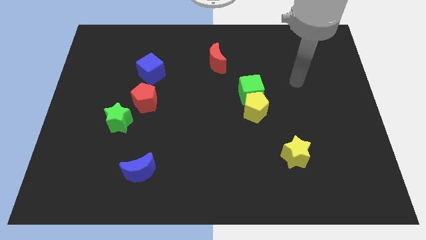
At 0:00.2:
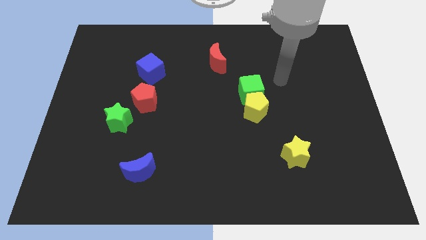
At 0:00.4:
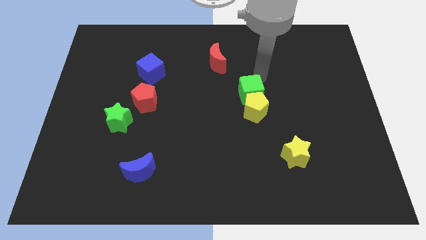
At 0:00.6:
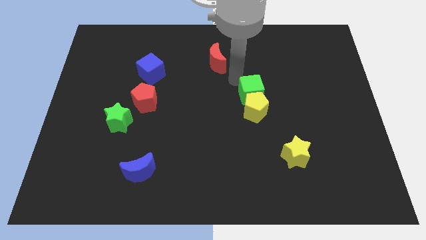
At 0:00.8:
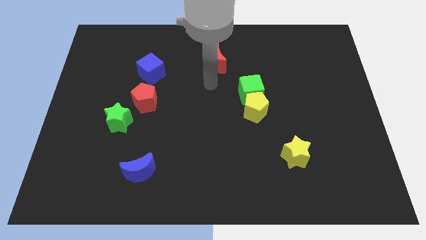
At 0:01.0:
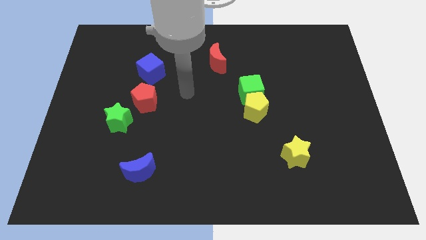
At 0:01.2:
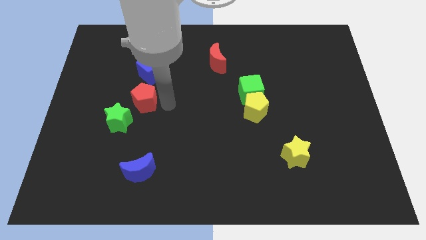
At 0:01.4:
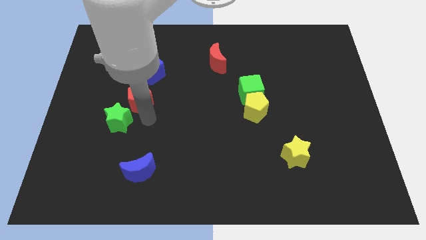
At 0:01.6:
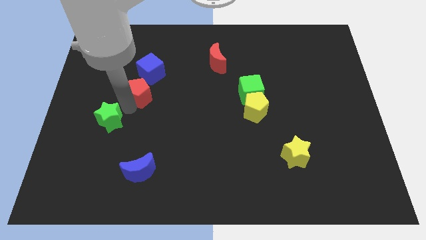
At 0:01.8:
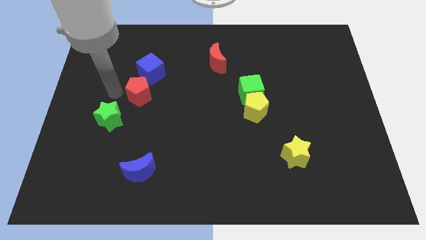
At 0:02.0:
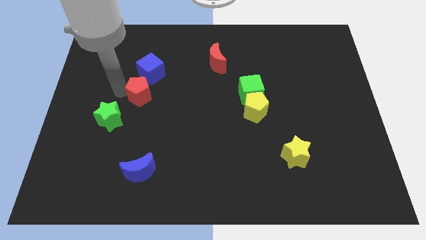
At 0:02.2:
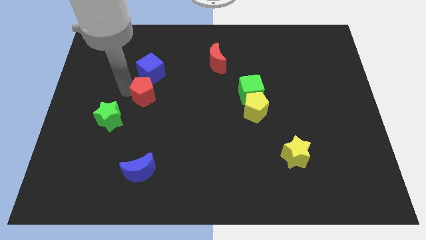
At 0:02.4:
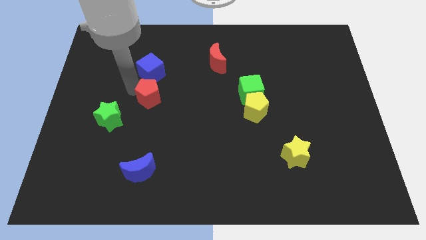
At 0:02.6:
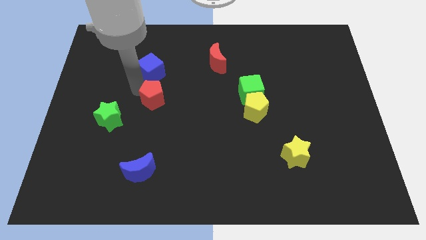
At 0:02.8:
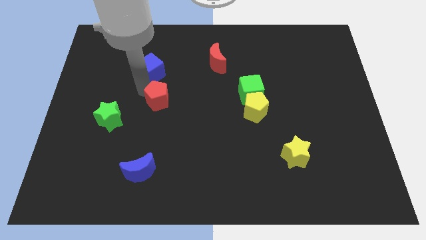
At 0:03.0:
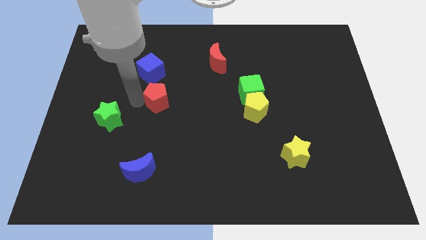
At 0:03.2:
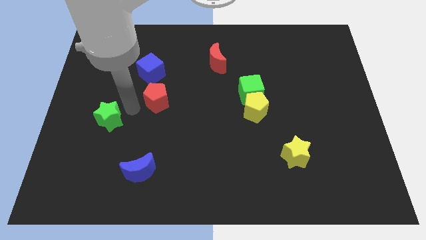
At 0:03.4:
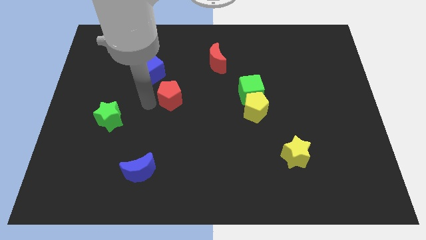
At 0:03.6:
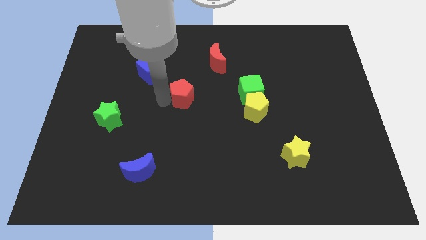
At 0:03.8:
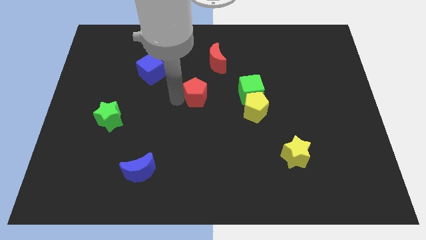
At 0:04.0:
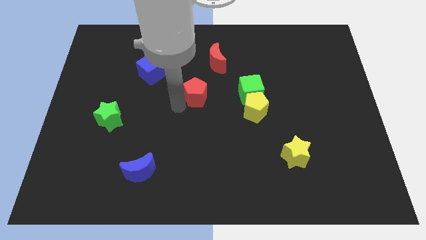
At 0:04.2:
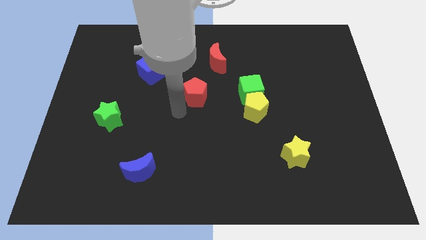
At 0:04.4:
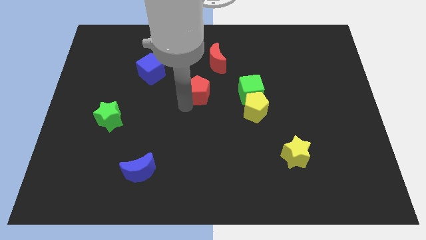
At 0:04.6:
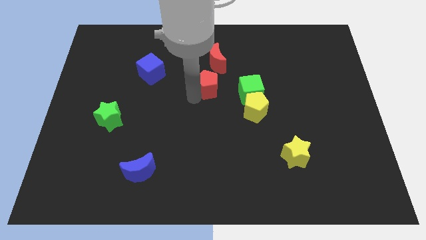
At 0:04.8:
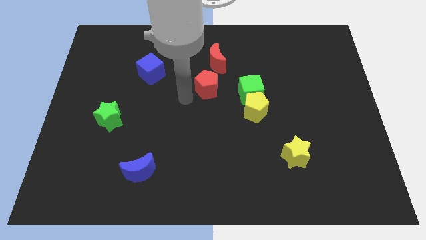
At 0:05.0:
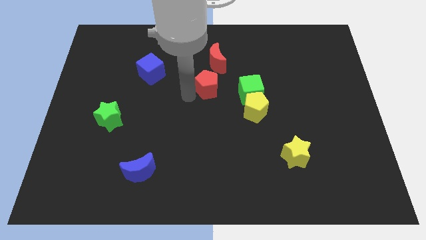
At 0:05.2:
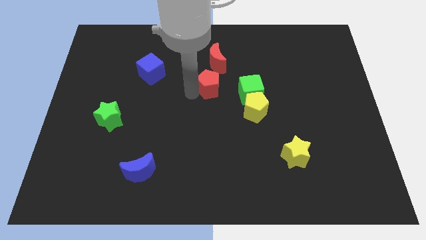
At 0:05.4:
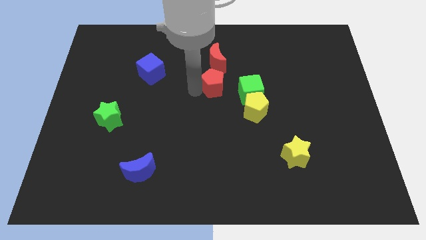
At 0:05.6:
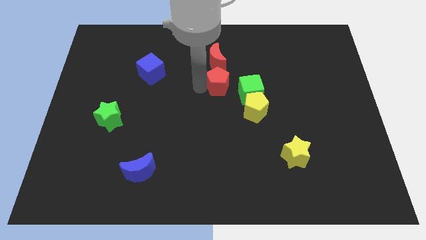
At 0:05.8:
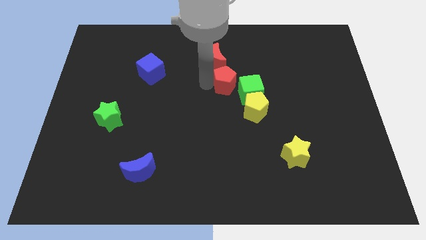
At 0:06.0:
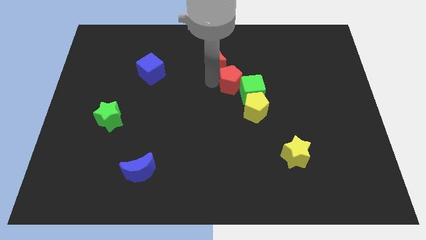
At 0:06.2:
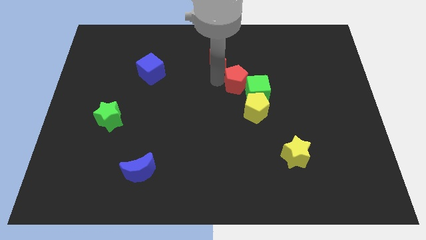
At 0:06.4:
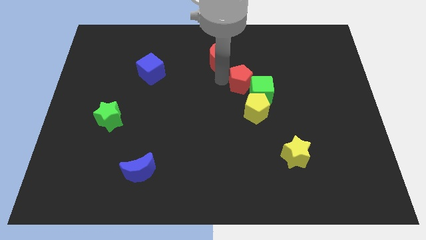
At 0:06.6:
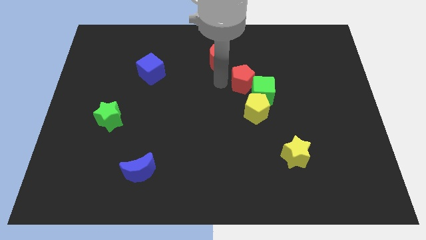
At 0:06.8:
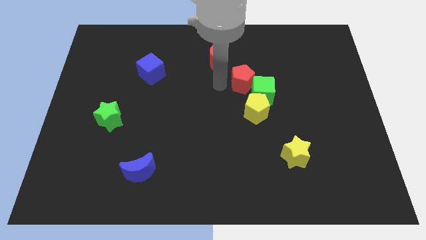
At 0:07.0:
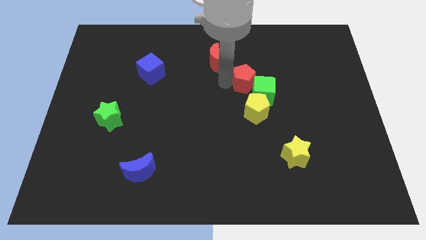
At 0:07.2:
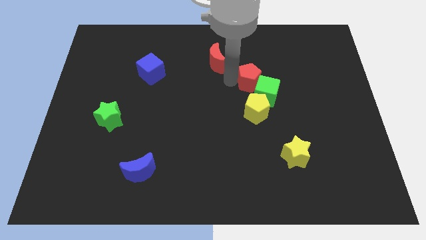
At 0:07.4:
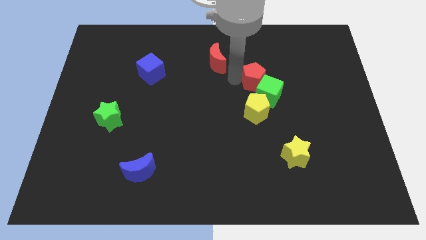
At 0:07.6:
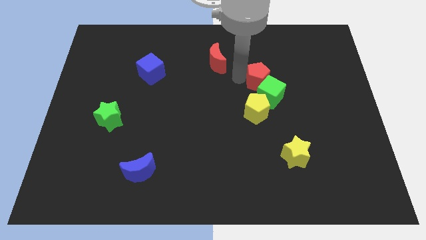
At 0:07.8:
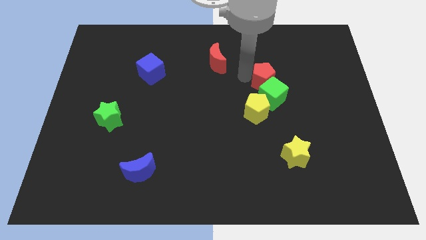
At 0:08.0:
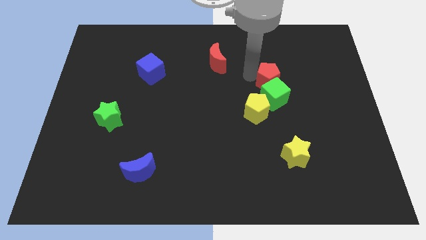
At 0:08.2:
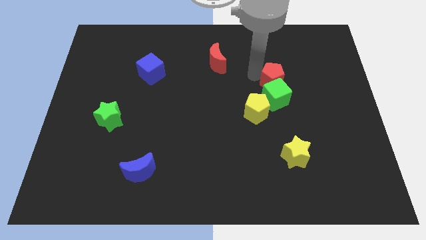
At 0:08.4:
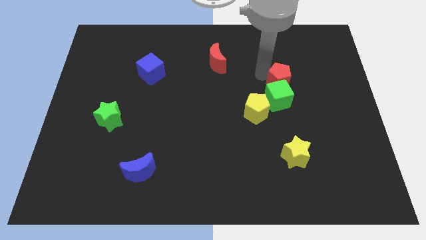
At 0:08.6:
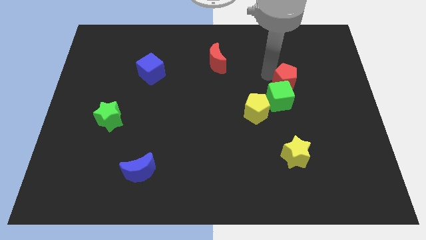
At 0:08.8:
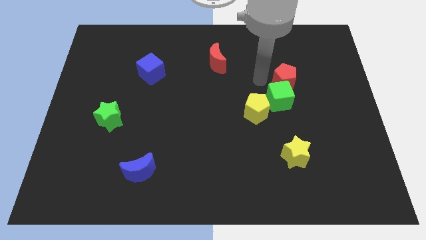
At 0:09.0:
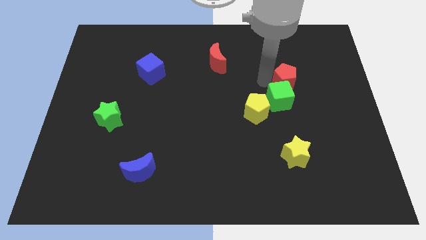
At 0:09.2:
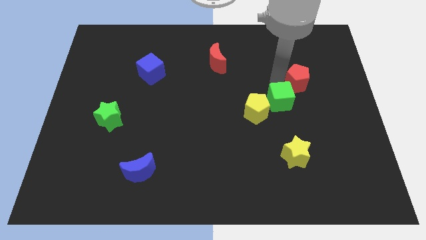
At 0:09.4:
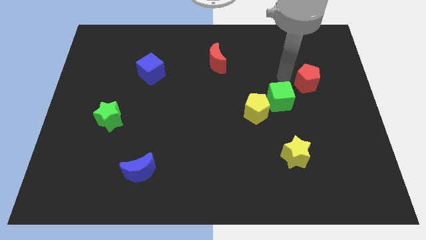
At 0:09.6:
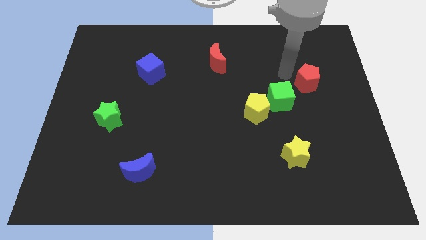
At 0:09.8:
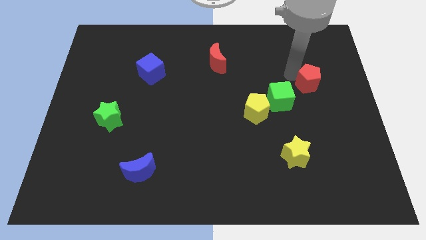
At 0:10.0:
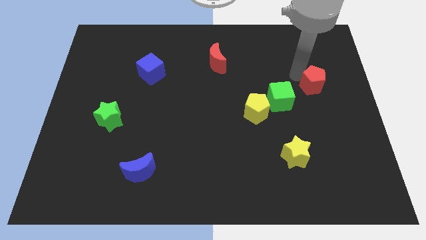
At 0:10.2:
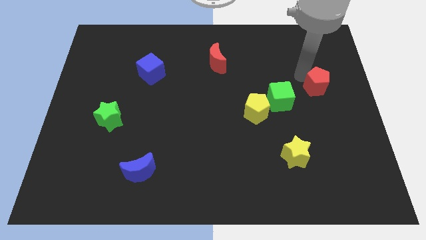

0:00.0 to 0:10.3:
push the red pentagon to the right side of the board

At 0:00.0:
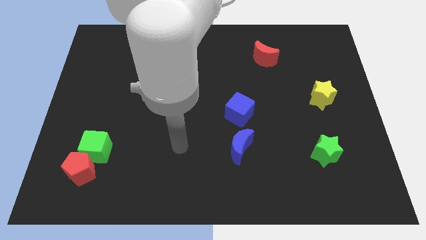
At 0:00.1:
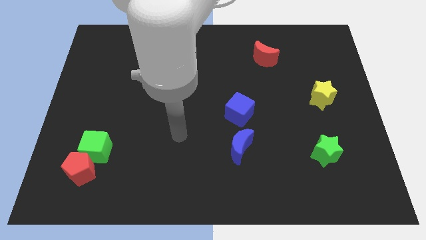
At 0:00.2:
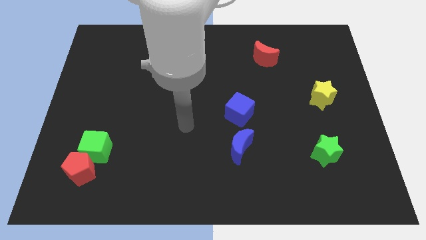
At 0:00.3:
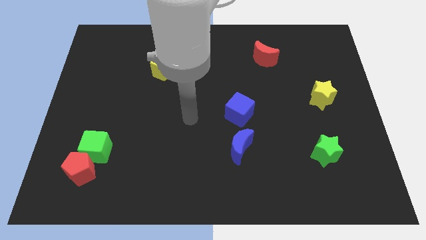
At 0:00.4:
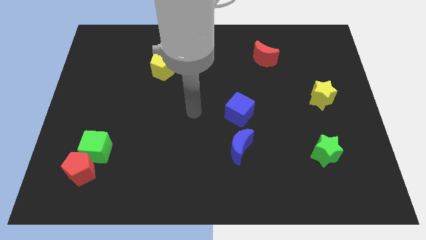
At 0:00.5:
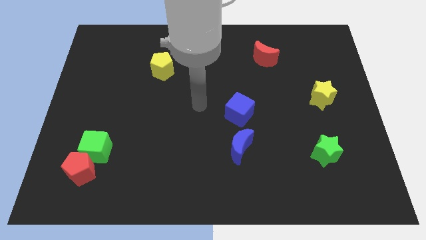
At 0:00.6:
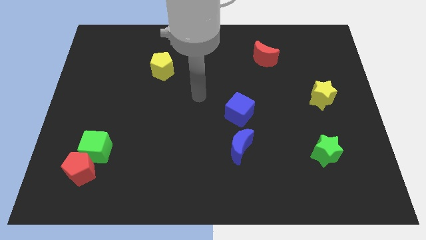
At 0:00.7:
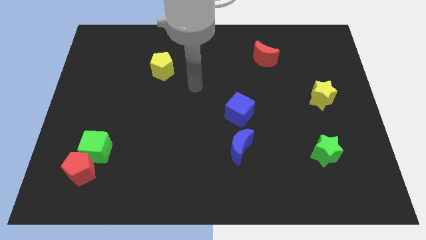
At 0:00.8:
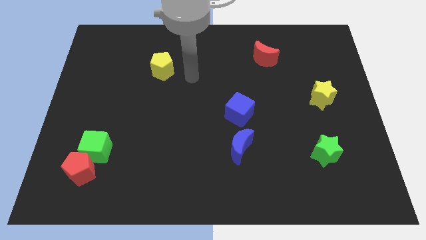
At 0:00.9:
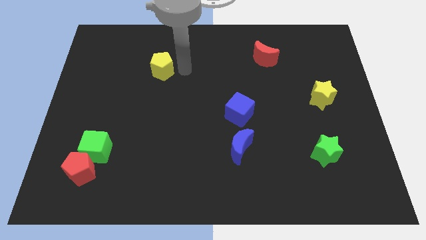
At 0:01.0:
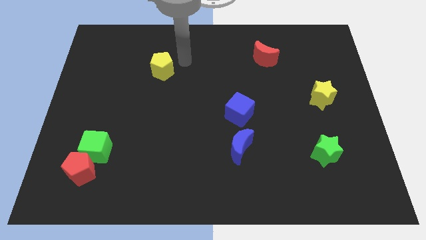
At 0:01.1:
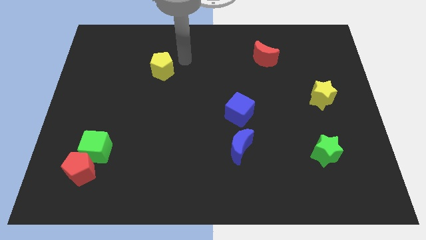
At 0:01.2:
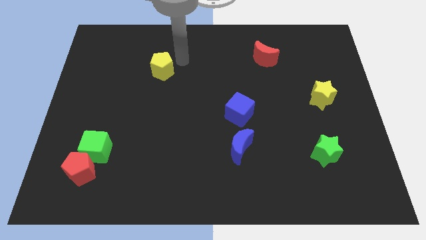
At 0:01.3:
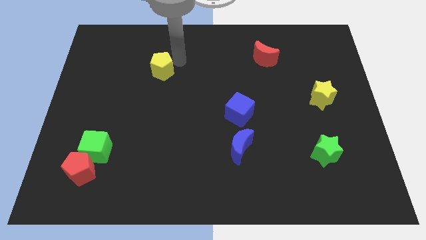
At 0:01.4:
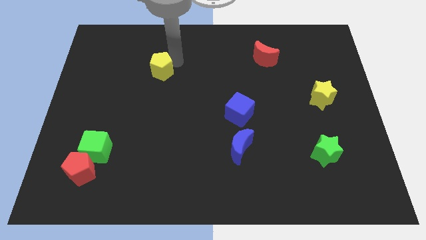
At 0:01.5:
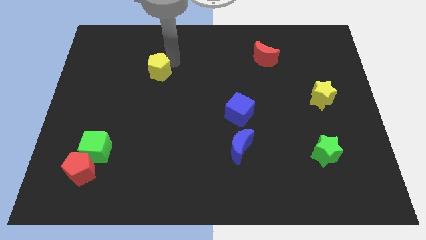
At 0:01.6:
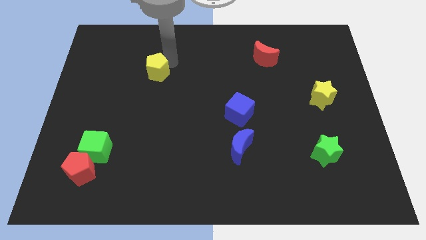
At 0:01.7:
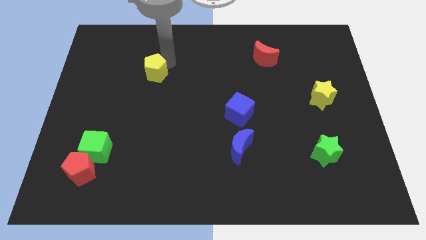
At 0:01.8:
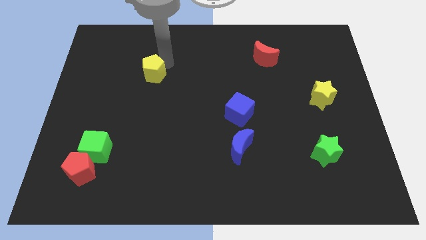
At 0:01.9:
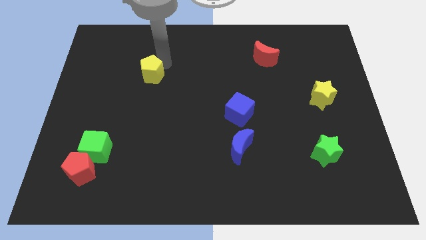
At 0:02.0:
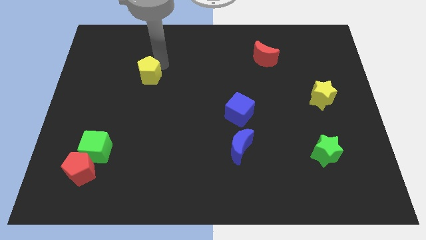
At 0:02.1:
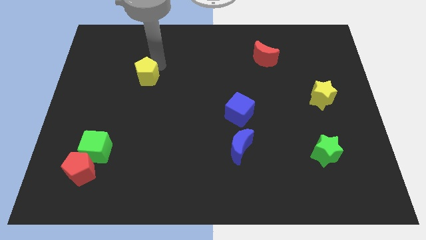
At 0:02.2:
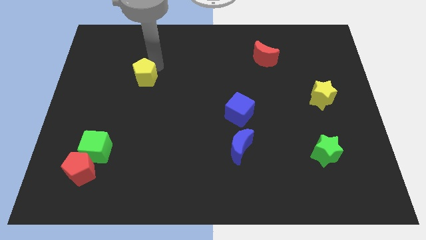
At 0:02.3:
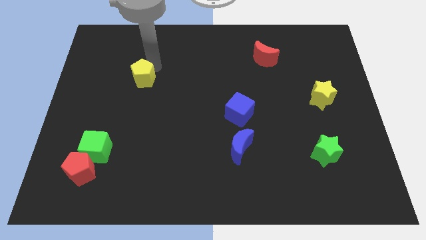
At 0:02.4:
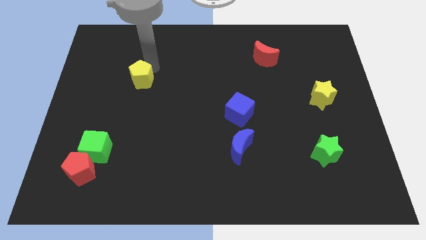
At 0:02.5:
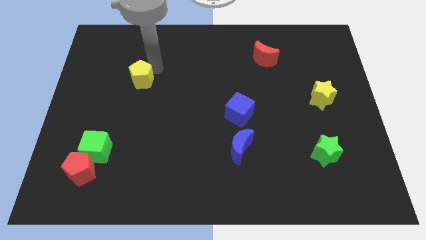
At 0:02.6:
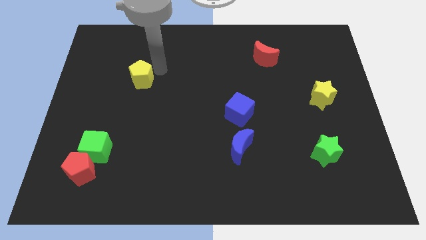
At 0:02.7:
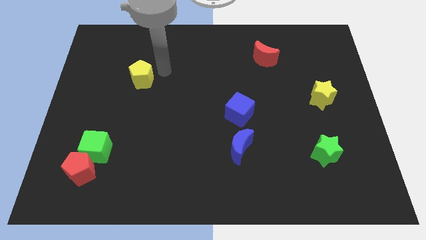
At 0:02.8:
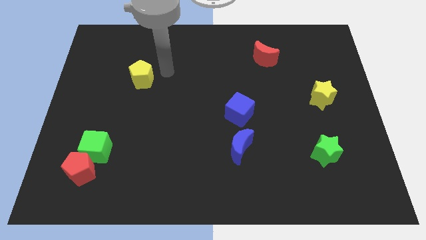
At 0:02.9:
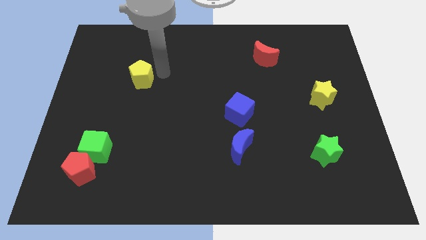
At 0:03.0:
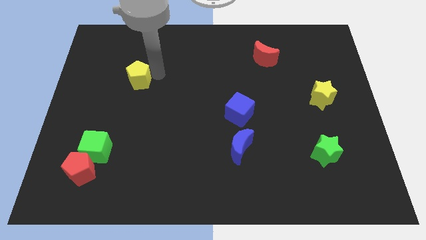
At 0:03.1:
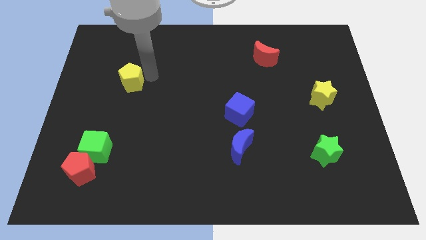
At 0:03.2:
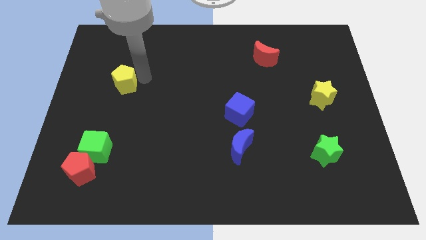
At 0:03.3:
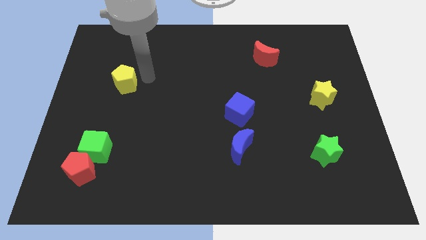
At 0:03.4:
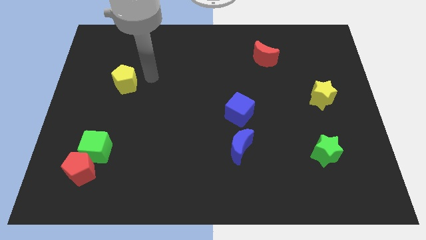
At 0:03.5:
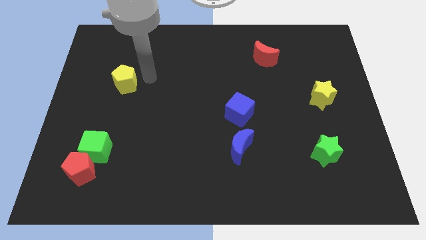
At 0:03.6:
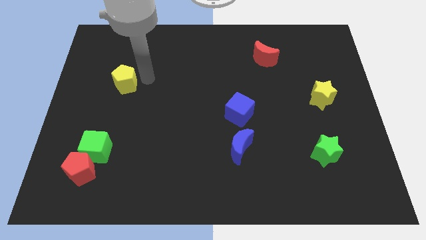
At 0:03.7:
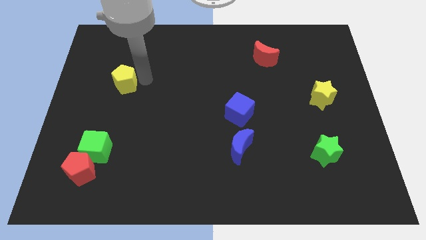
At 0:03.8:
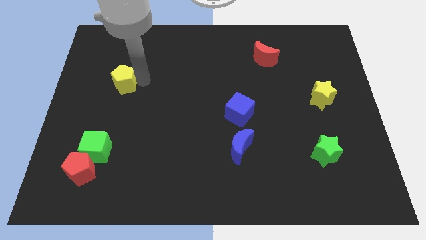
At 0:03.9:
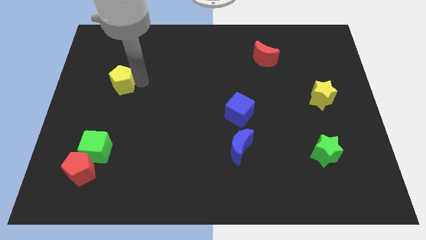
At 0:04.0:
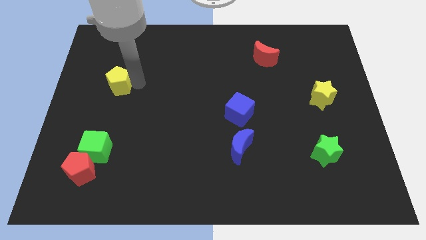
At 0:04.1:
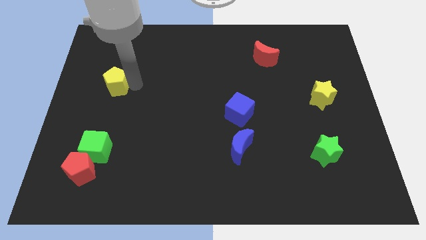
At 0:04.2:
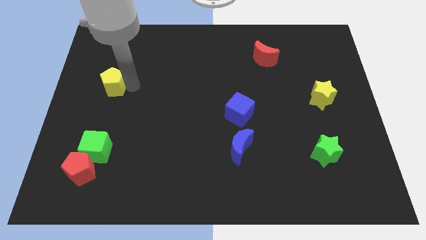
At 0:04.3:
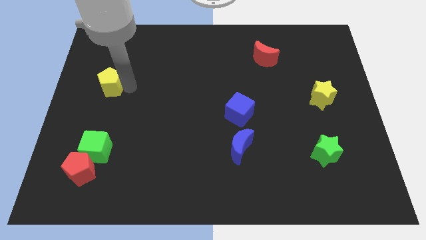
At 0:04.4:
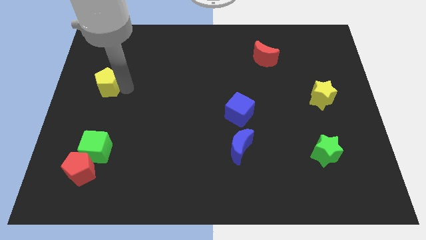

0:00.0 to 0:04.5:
put the yellow pentagon to the left side
